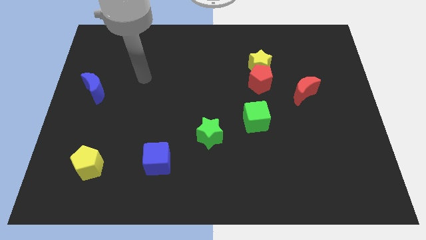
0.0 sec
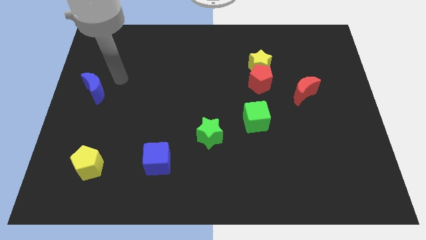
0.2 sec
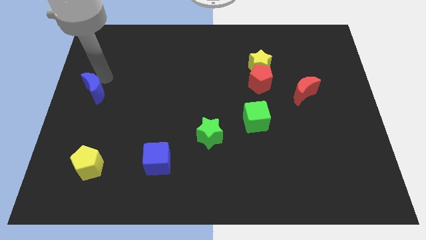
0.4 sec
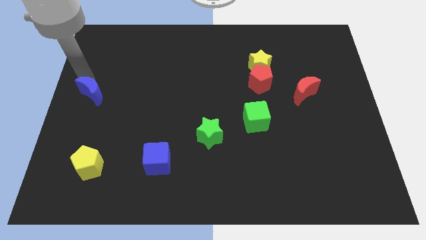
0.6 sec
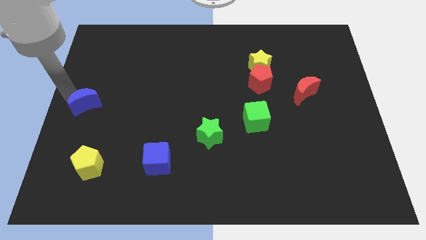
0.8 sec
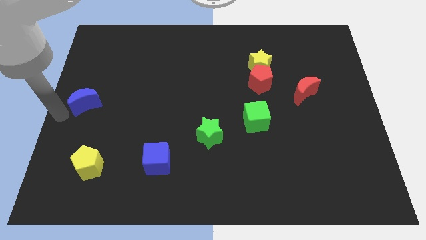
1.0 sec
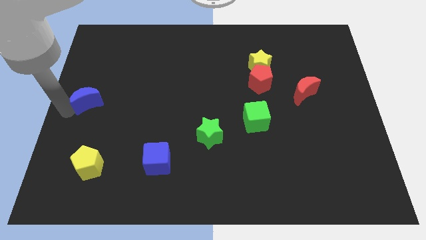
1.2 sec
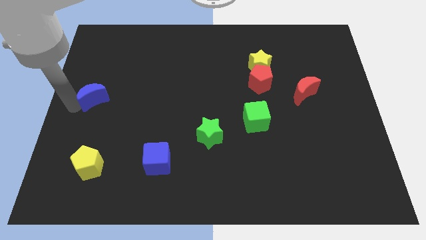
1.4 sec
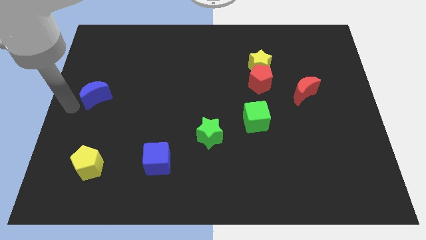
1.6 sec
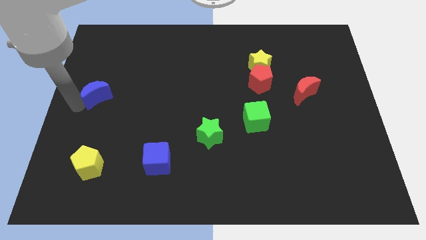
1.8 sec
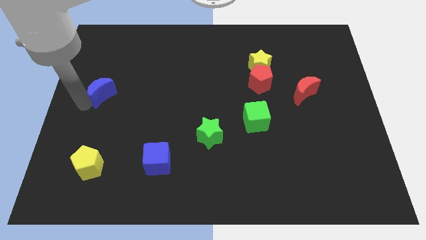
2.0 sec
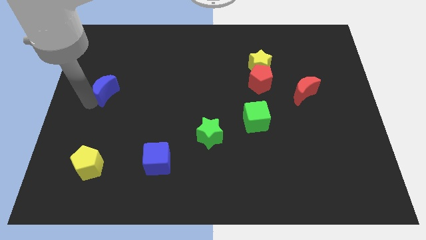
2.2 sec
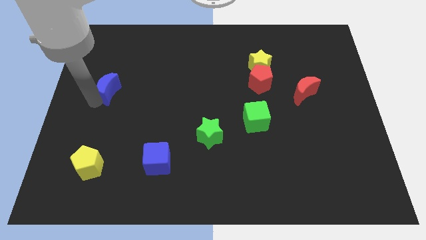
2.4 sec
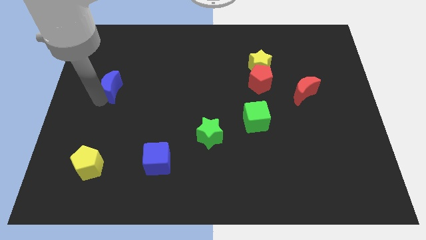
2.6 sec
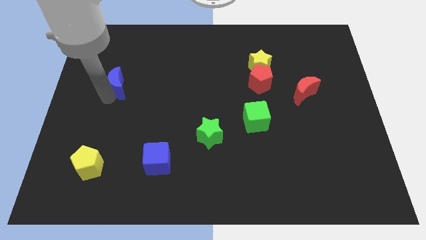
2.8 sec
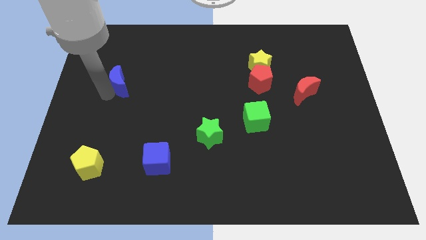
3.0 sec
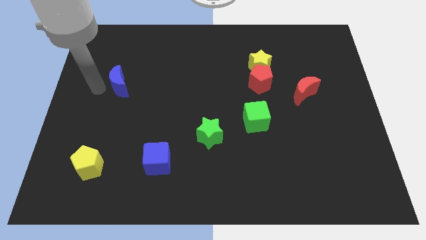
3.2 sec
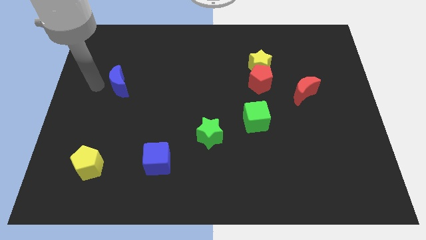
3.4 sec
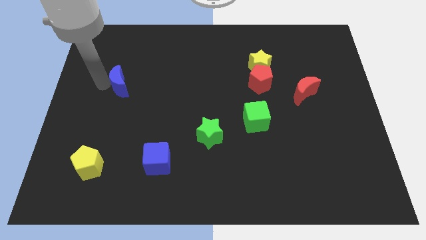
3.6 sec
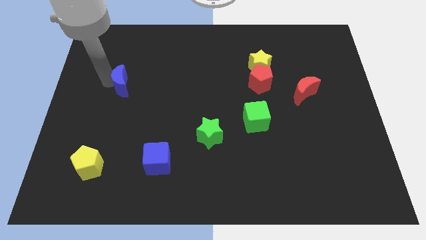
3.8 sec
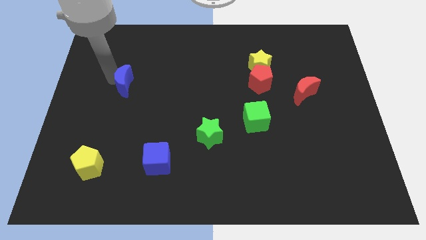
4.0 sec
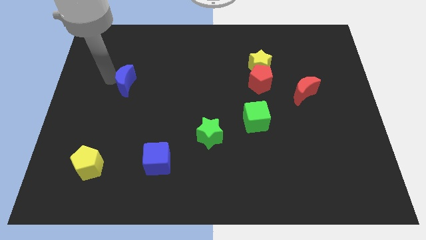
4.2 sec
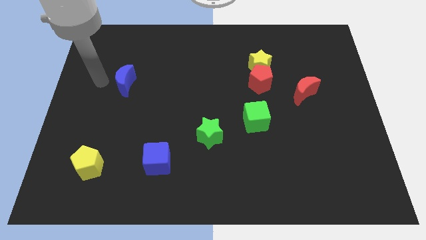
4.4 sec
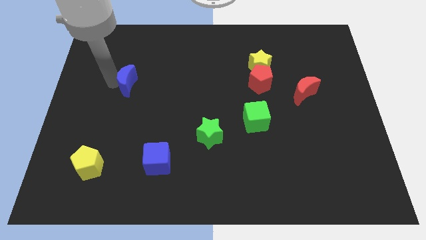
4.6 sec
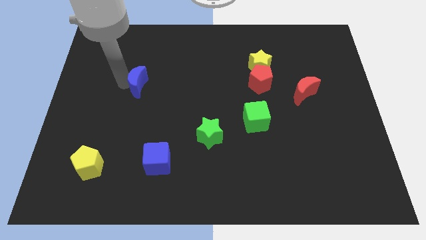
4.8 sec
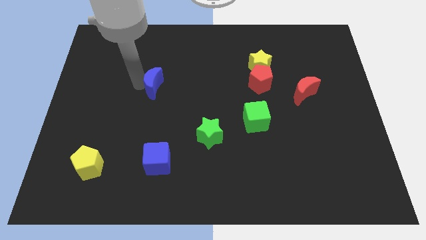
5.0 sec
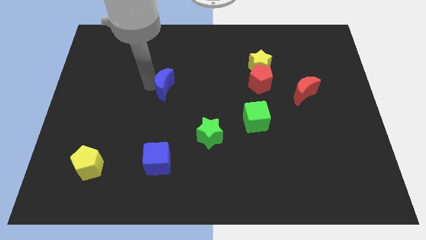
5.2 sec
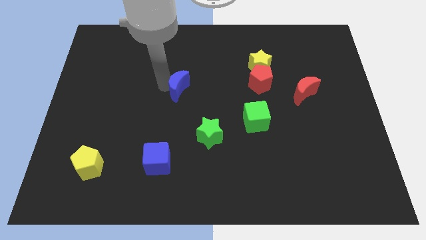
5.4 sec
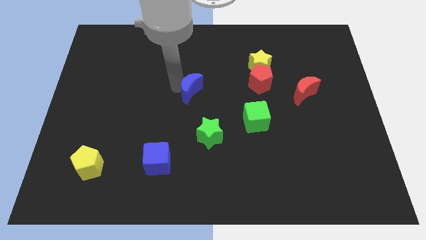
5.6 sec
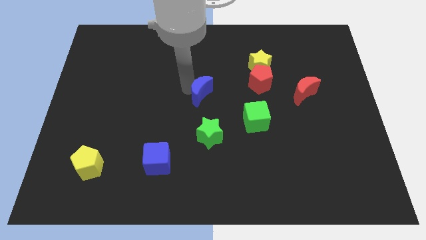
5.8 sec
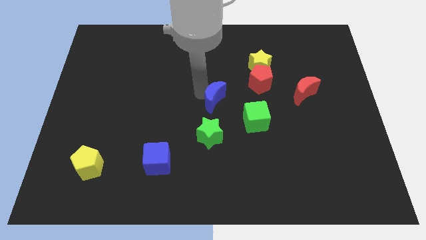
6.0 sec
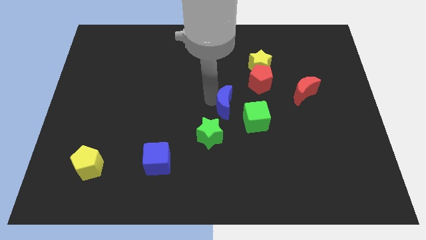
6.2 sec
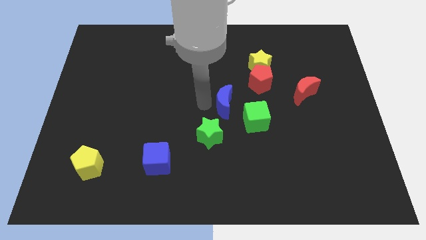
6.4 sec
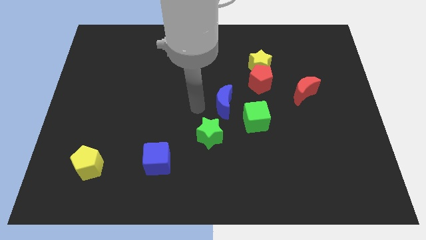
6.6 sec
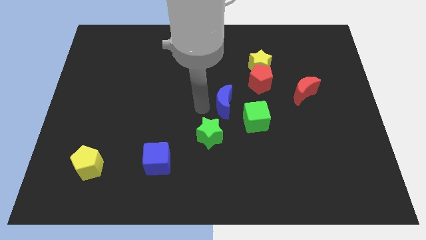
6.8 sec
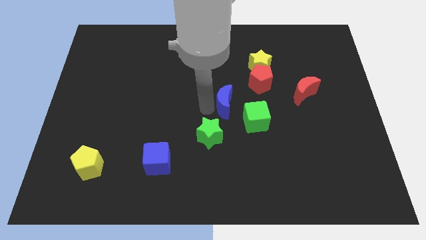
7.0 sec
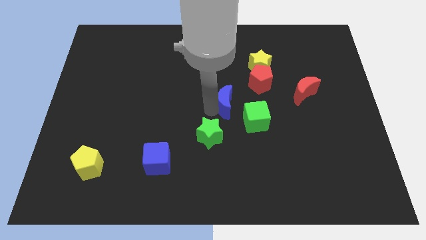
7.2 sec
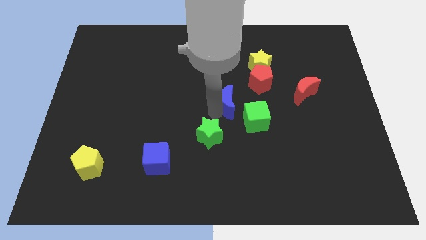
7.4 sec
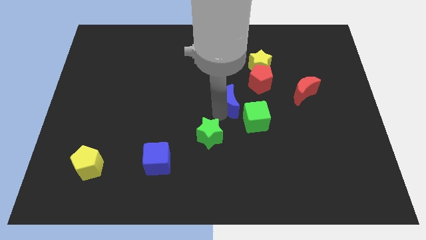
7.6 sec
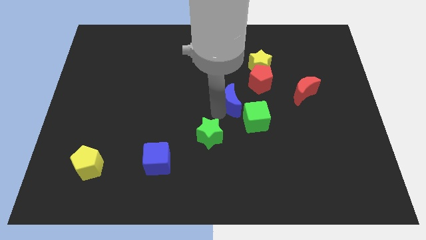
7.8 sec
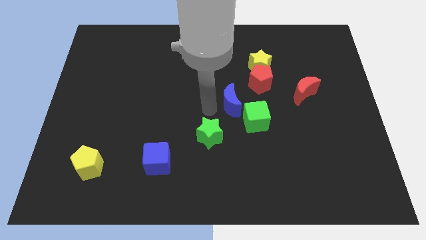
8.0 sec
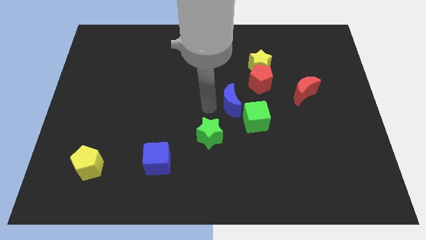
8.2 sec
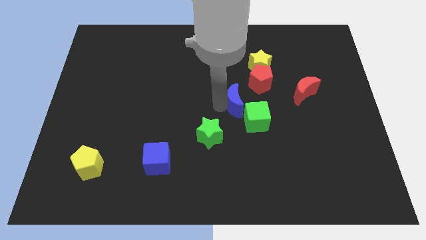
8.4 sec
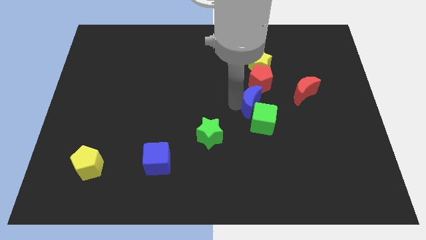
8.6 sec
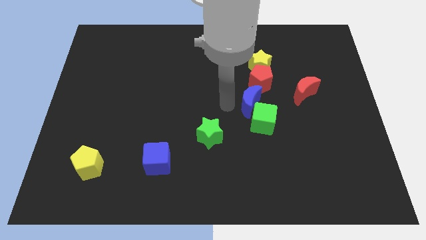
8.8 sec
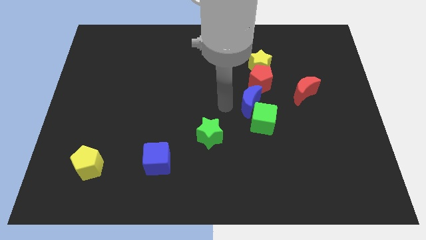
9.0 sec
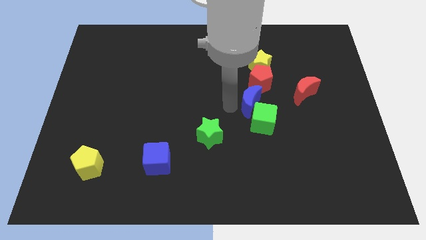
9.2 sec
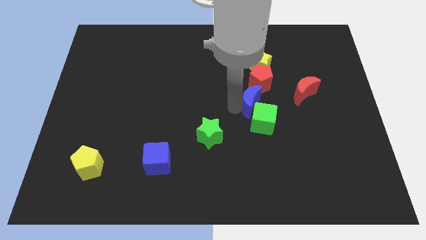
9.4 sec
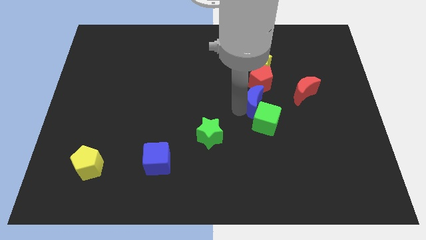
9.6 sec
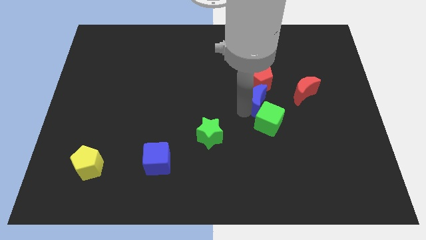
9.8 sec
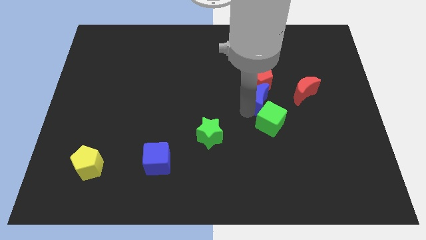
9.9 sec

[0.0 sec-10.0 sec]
slide the blue moon diagonally down and to the right of the red pentagon

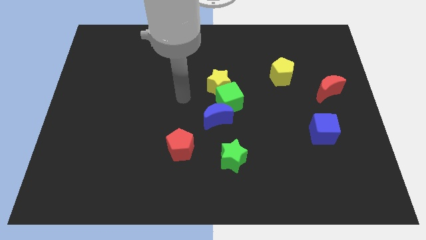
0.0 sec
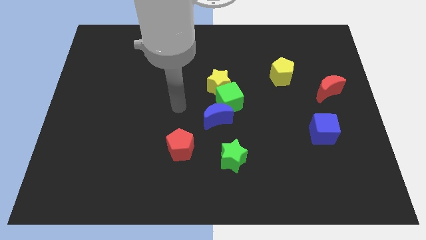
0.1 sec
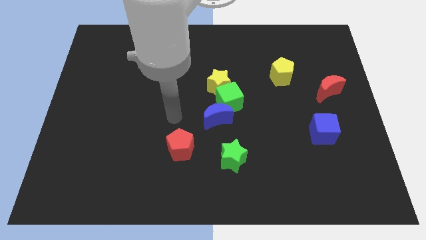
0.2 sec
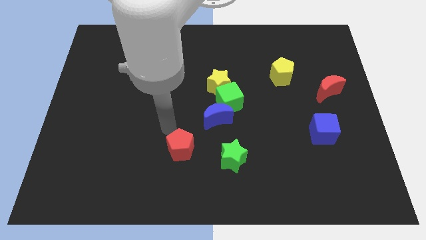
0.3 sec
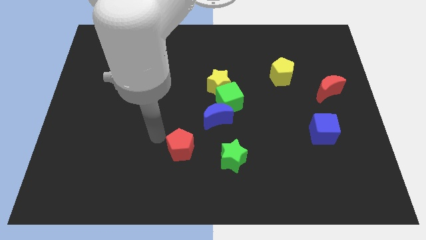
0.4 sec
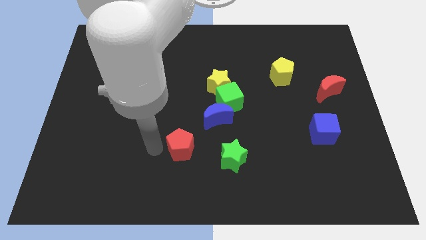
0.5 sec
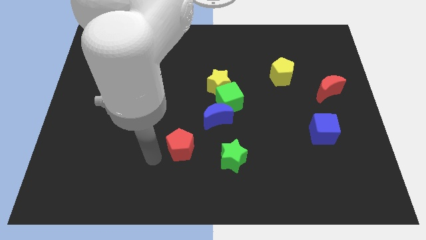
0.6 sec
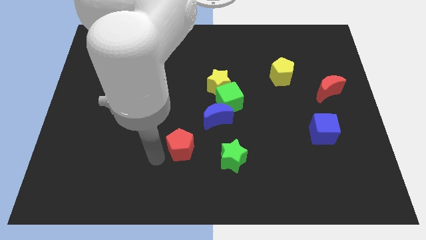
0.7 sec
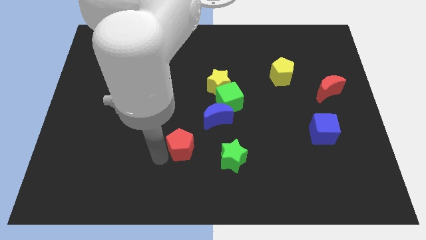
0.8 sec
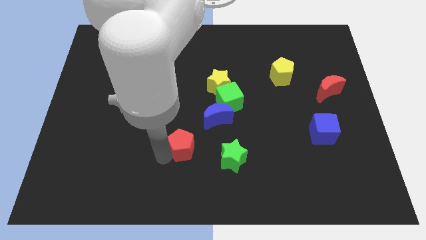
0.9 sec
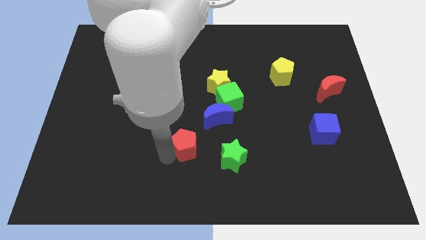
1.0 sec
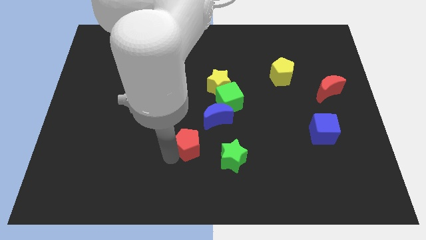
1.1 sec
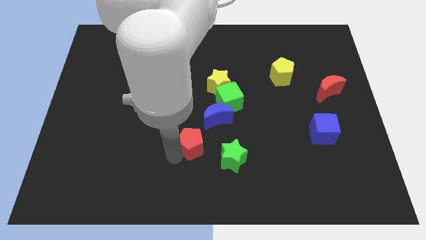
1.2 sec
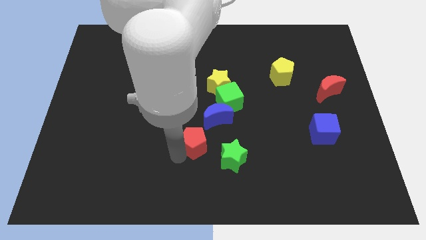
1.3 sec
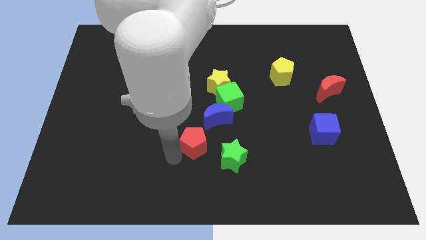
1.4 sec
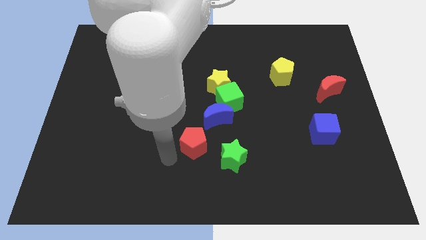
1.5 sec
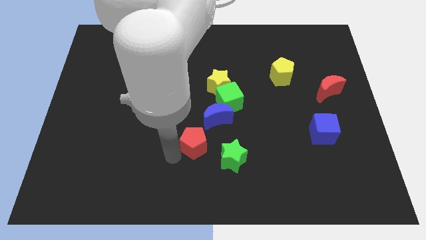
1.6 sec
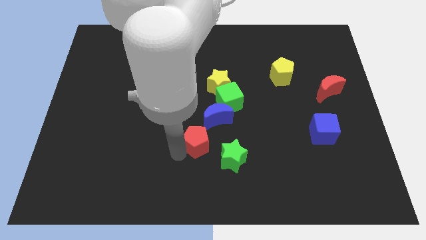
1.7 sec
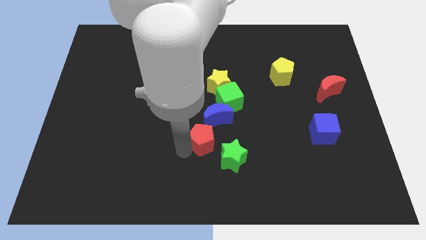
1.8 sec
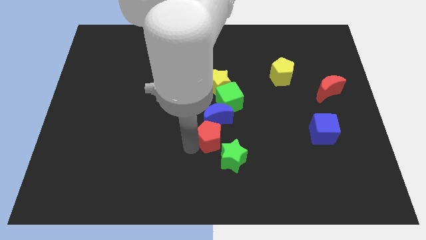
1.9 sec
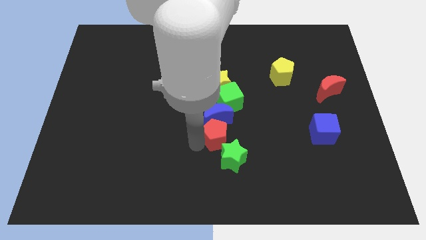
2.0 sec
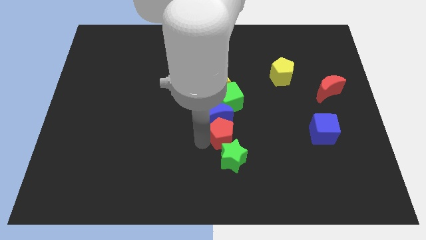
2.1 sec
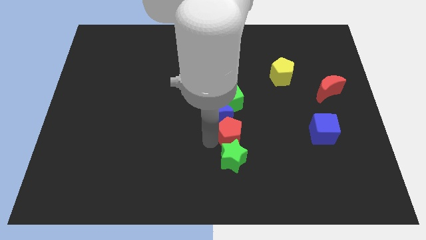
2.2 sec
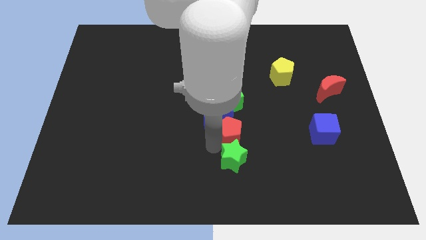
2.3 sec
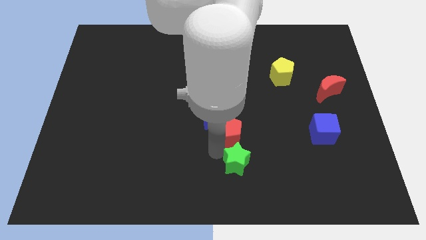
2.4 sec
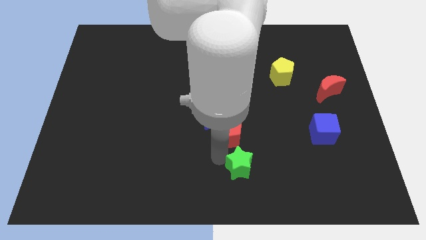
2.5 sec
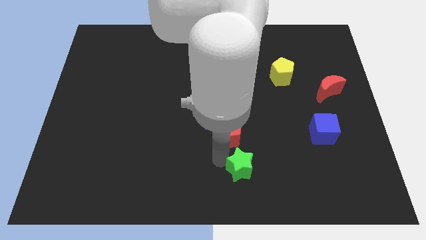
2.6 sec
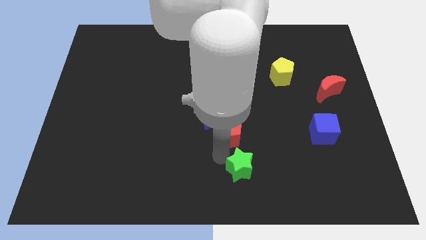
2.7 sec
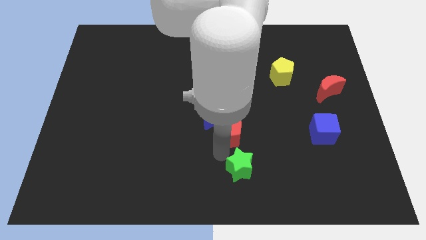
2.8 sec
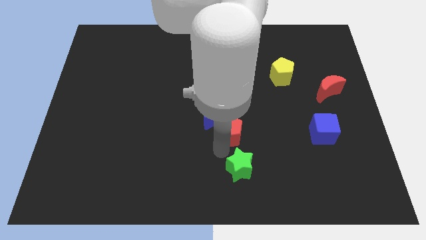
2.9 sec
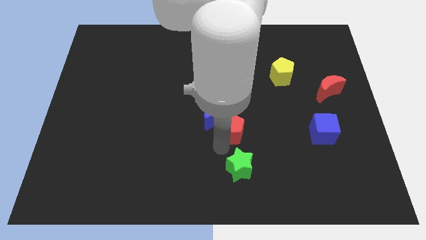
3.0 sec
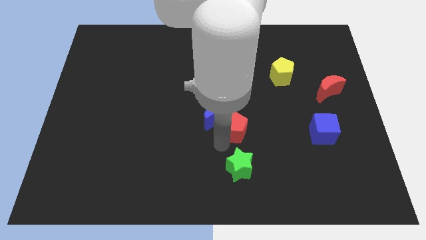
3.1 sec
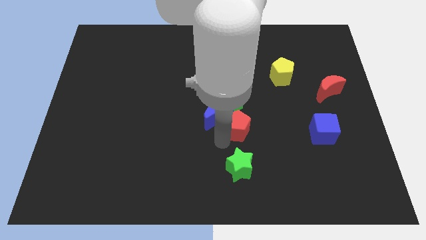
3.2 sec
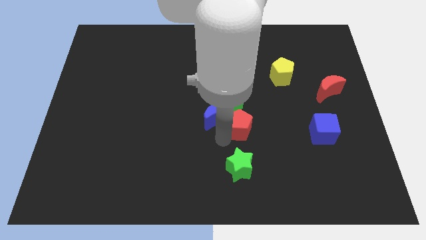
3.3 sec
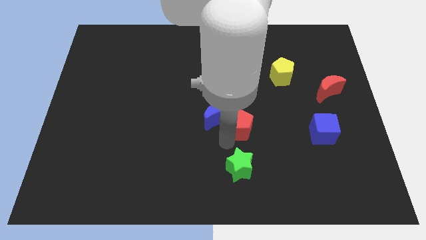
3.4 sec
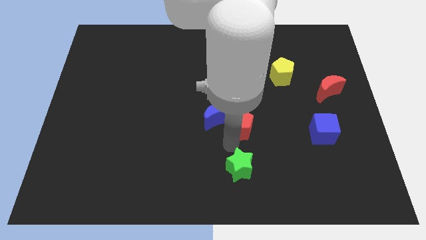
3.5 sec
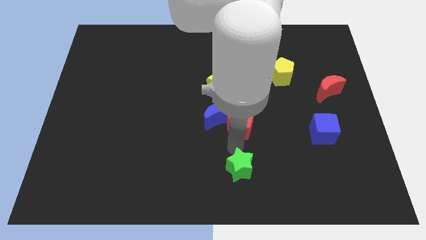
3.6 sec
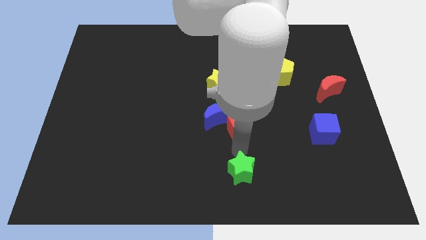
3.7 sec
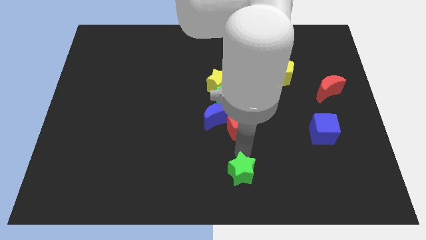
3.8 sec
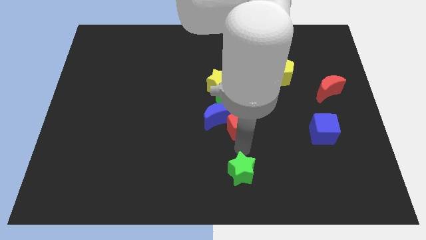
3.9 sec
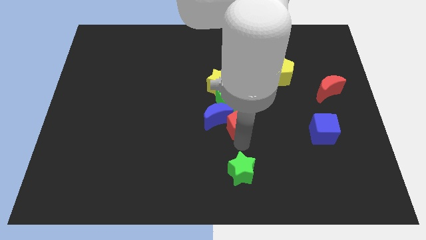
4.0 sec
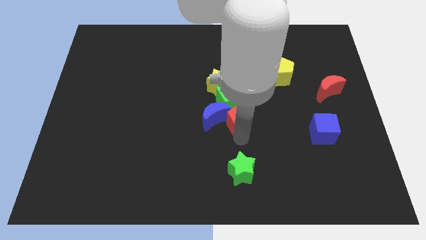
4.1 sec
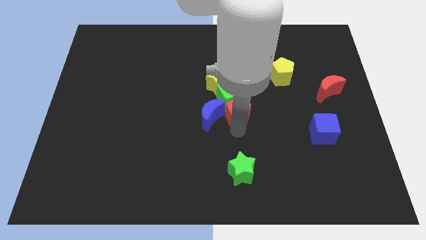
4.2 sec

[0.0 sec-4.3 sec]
move the red pentagon to the top right of the blue moon
